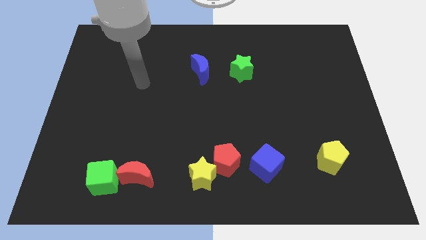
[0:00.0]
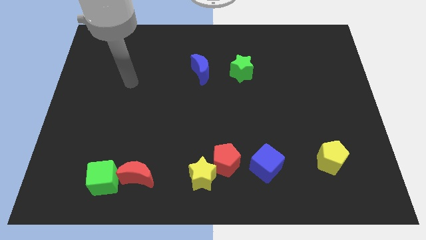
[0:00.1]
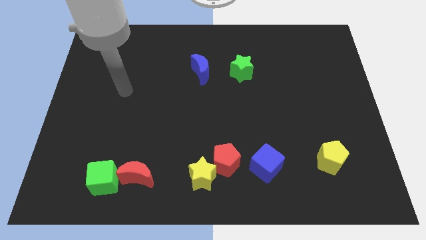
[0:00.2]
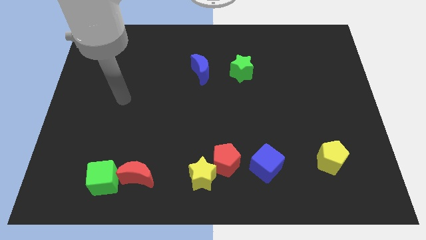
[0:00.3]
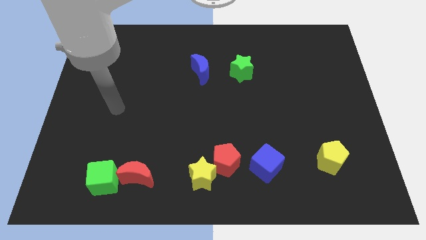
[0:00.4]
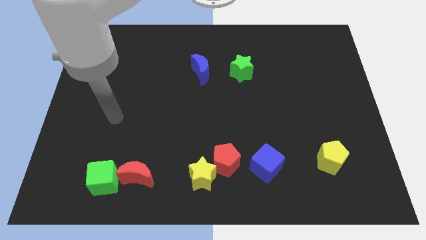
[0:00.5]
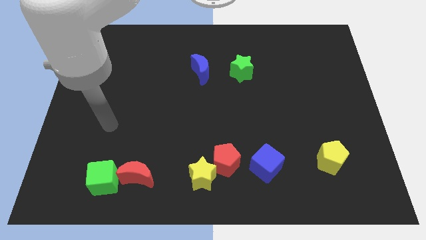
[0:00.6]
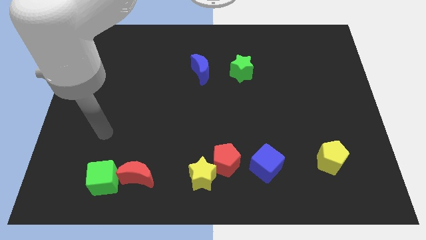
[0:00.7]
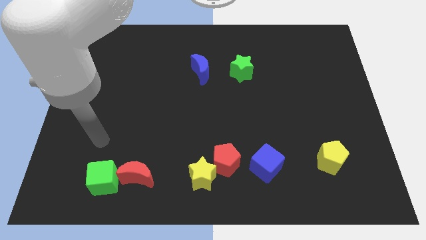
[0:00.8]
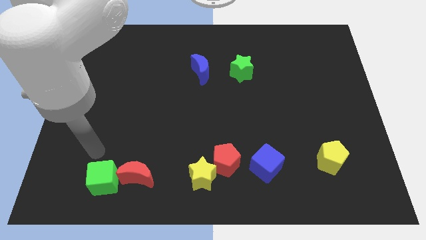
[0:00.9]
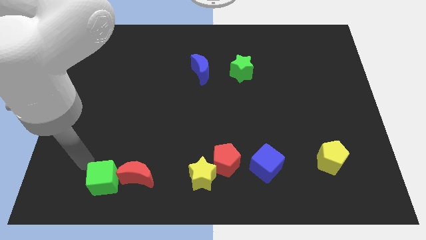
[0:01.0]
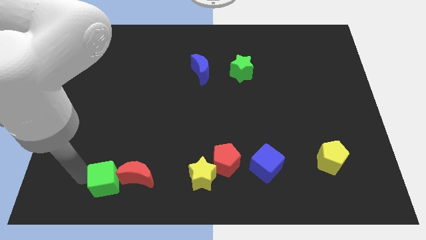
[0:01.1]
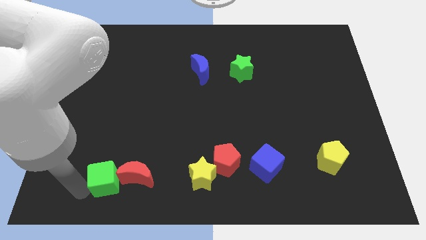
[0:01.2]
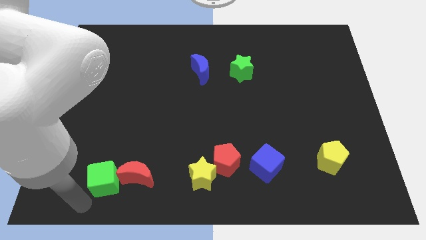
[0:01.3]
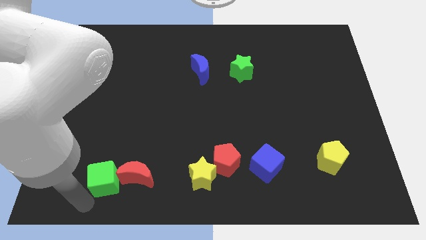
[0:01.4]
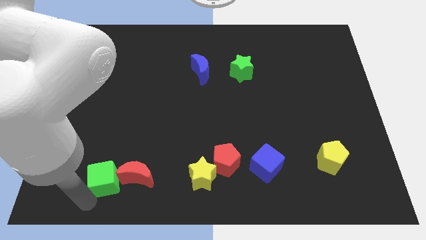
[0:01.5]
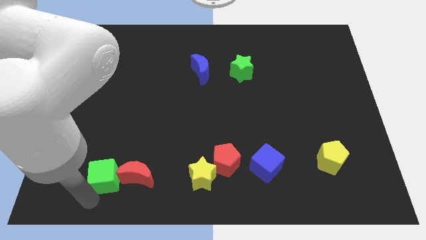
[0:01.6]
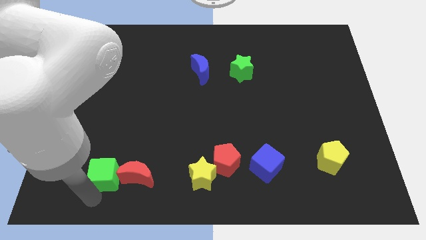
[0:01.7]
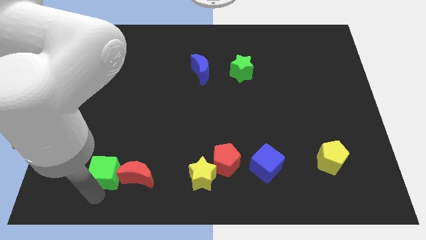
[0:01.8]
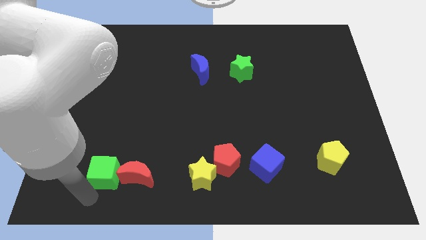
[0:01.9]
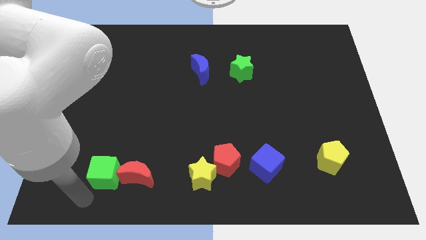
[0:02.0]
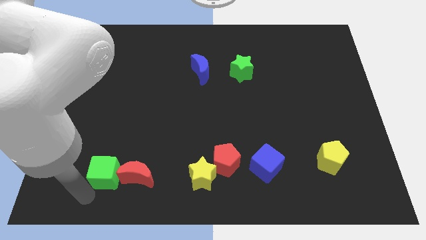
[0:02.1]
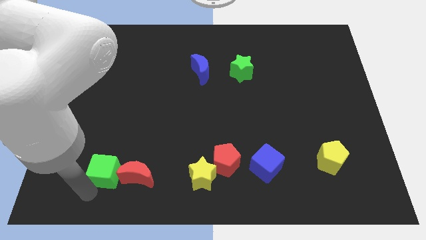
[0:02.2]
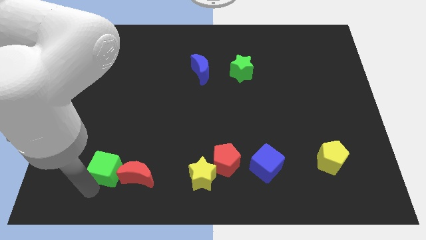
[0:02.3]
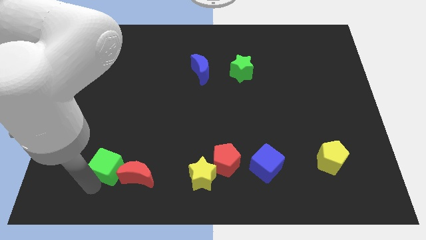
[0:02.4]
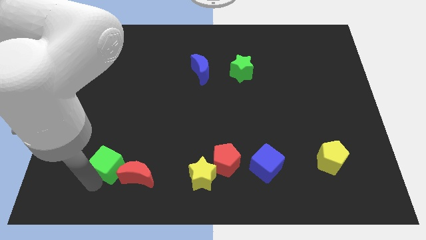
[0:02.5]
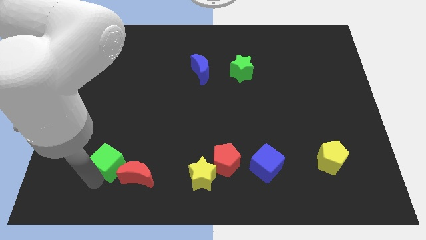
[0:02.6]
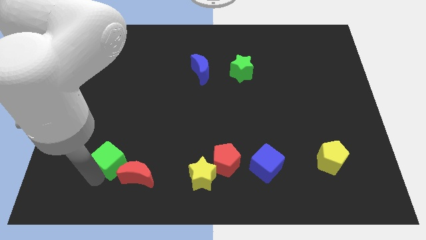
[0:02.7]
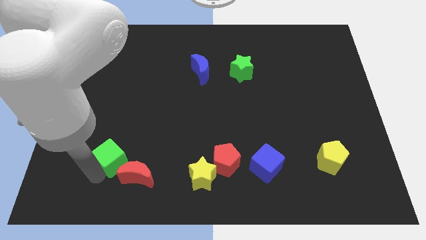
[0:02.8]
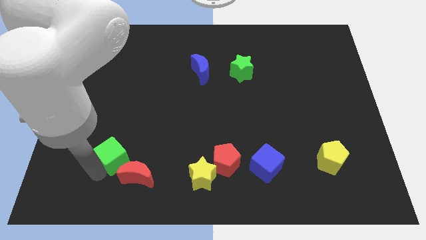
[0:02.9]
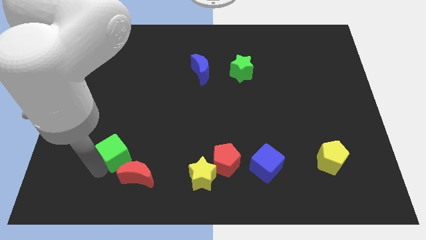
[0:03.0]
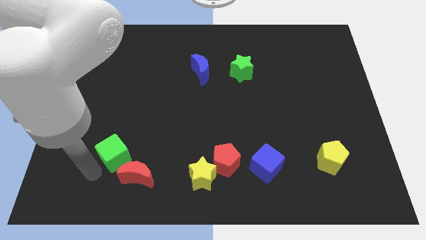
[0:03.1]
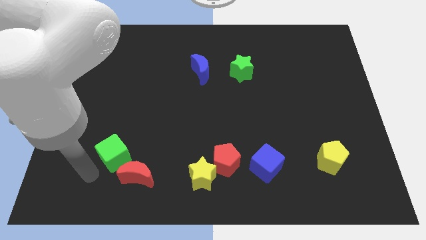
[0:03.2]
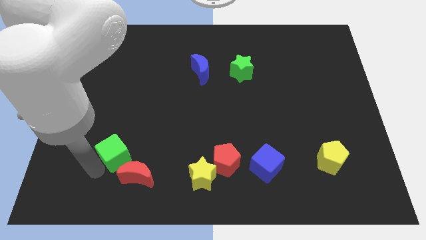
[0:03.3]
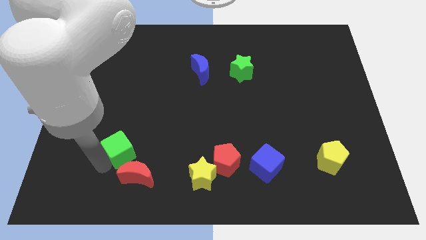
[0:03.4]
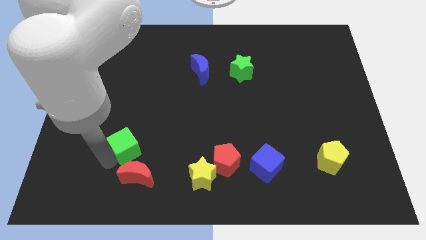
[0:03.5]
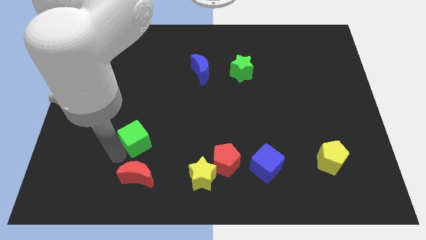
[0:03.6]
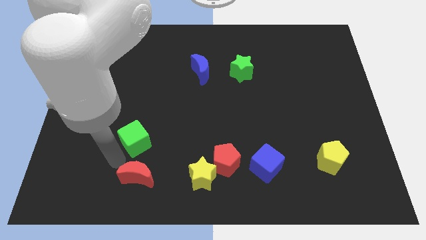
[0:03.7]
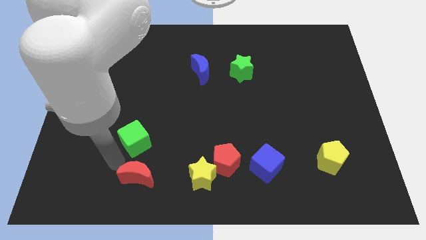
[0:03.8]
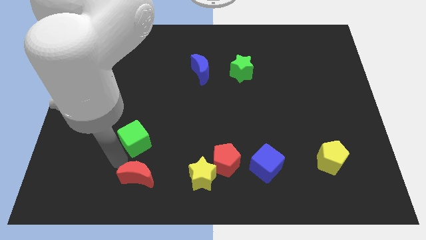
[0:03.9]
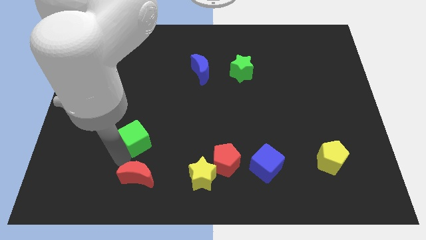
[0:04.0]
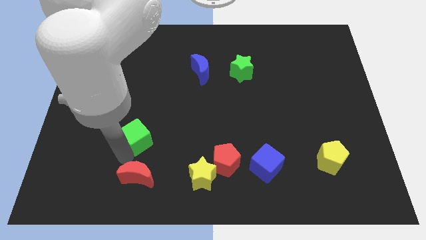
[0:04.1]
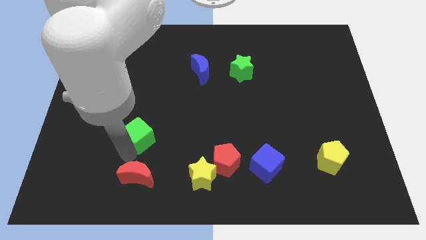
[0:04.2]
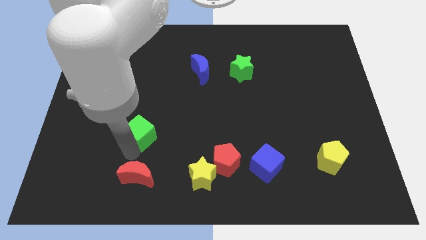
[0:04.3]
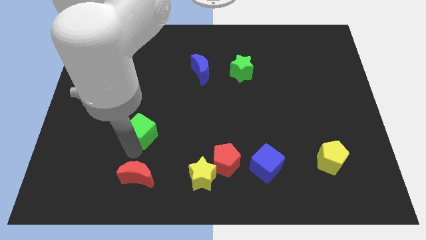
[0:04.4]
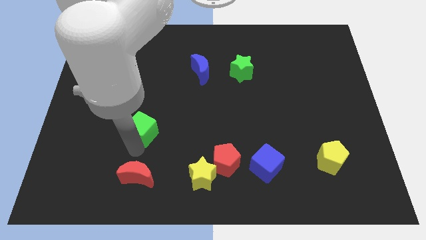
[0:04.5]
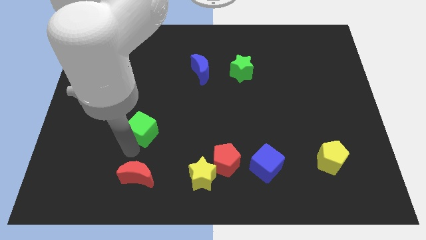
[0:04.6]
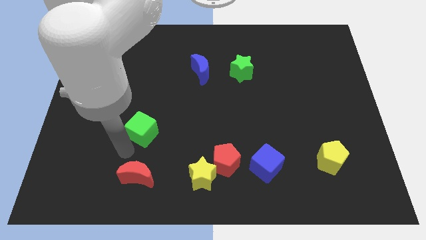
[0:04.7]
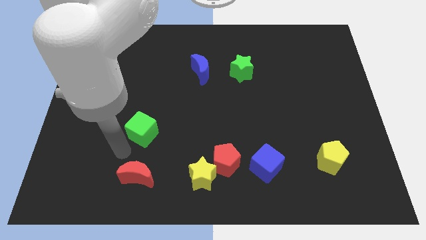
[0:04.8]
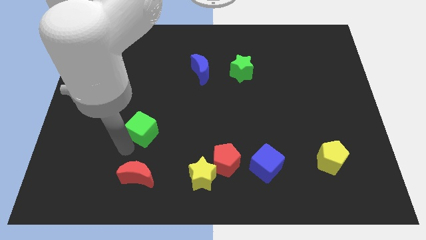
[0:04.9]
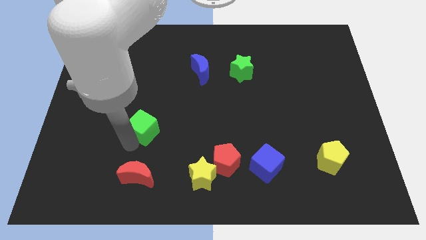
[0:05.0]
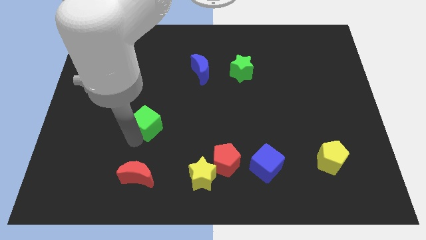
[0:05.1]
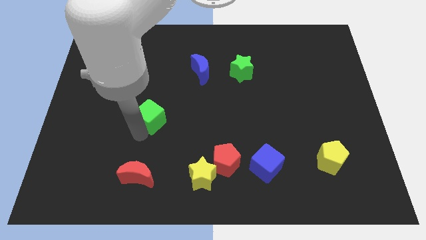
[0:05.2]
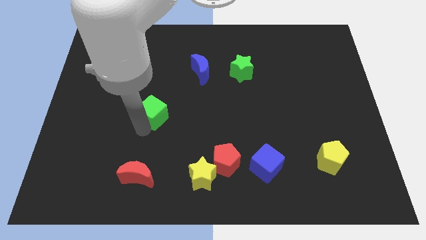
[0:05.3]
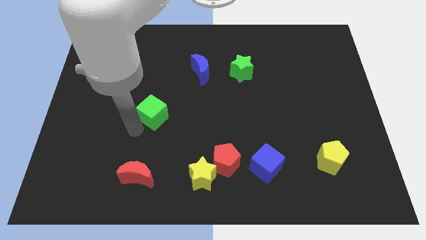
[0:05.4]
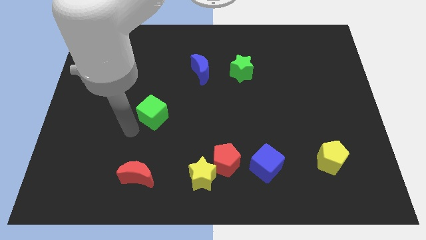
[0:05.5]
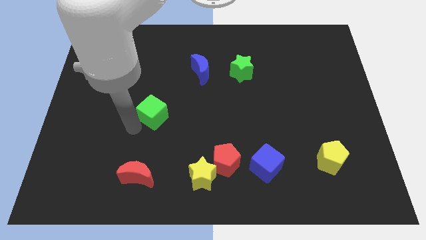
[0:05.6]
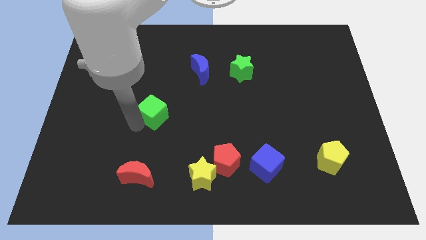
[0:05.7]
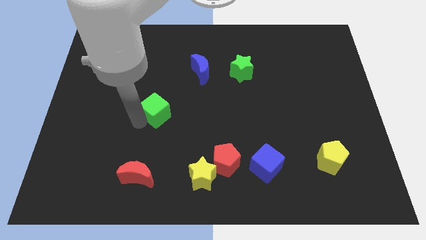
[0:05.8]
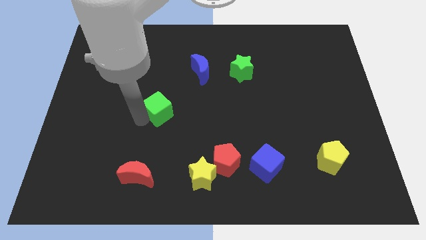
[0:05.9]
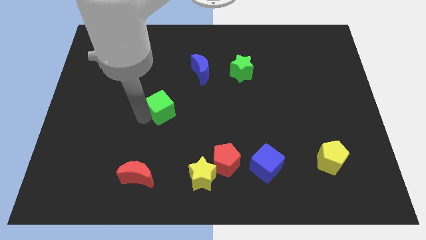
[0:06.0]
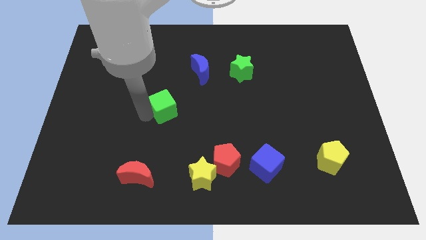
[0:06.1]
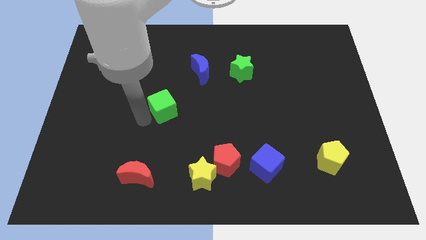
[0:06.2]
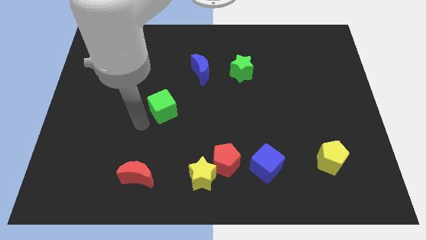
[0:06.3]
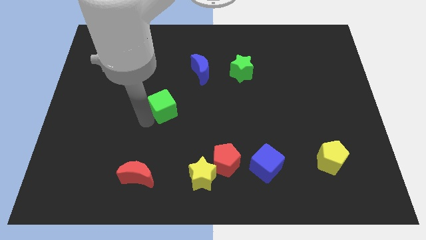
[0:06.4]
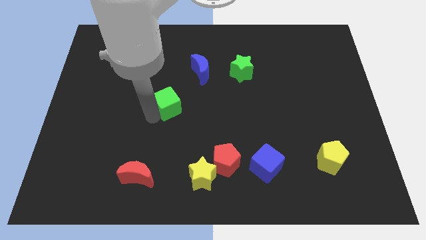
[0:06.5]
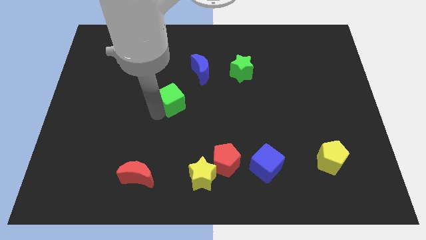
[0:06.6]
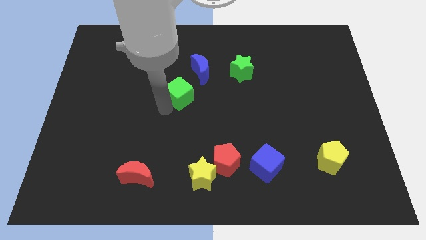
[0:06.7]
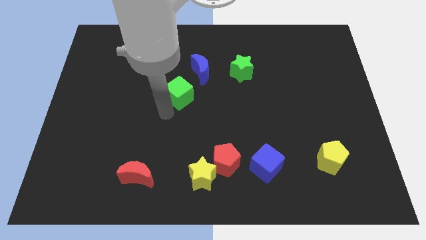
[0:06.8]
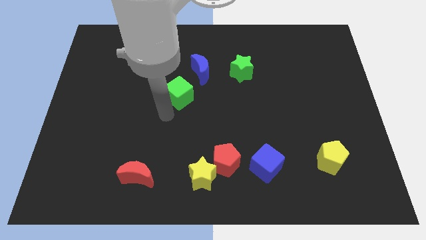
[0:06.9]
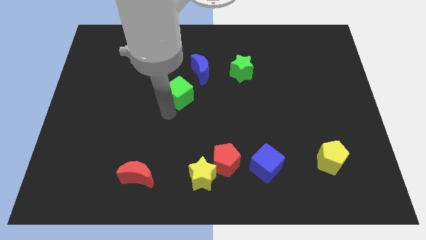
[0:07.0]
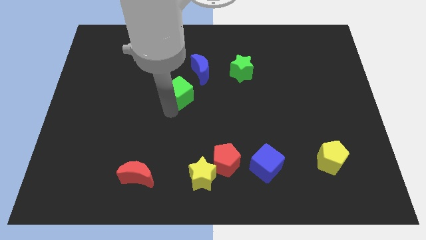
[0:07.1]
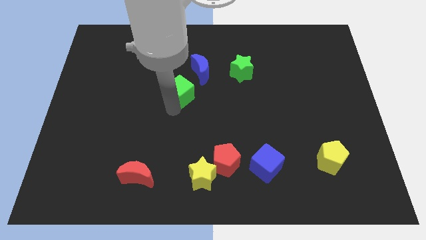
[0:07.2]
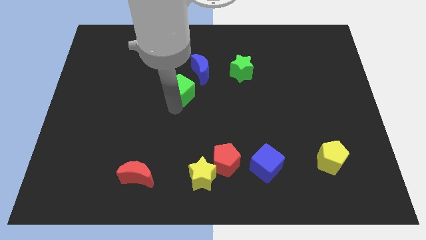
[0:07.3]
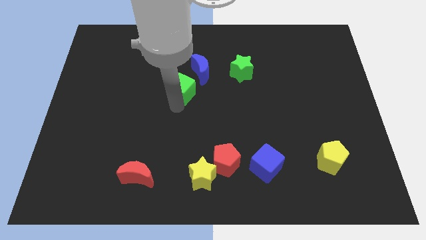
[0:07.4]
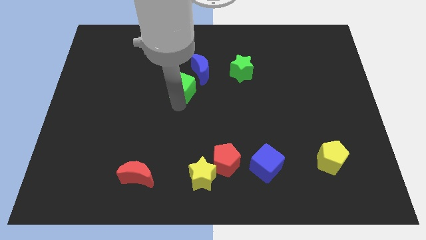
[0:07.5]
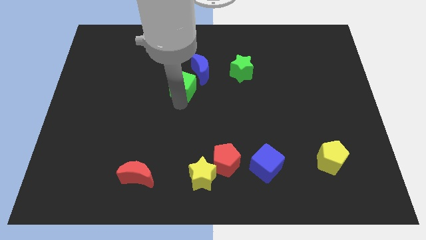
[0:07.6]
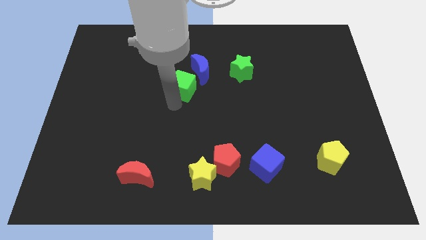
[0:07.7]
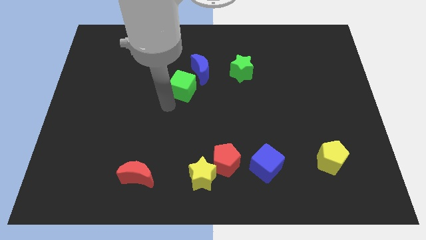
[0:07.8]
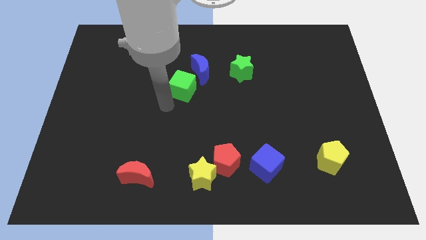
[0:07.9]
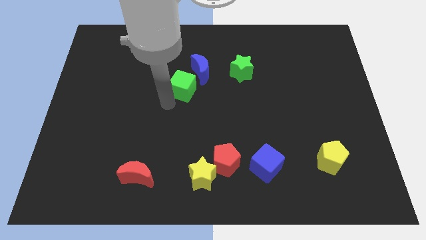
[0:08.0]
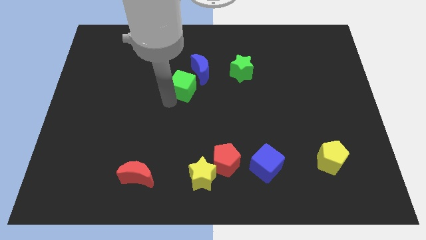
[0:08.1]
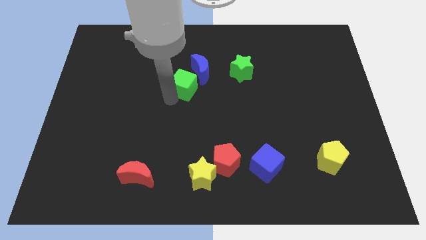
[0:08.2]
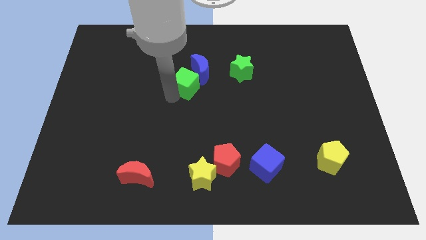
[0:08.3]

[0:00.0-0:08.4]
push the green cube next to the blue moon
